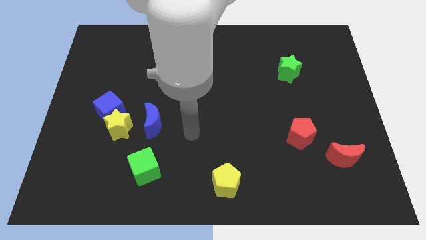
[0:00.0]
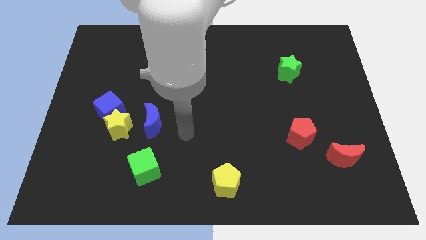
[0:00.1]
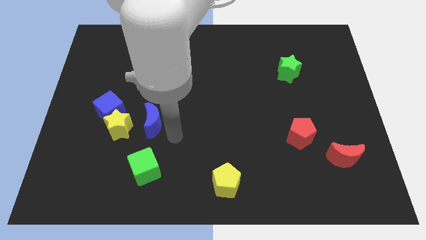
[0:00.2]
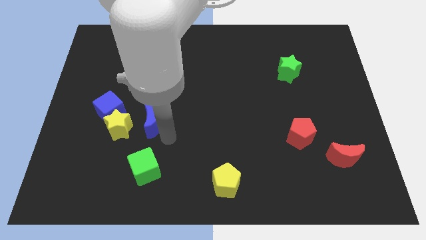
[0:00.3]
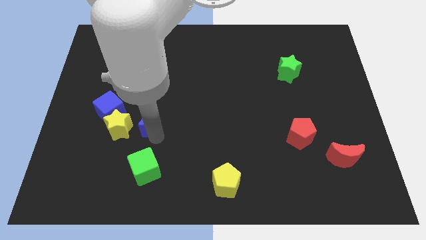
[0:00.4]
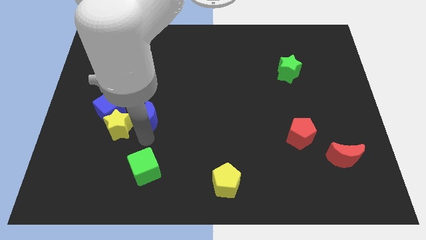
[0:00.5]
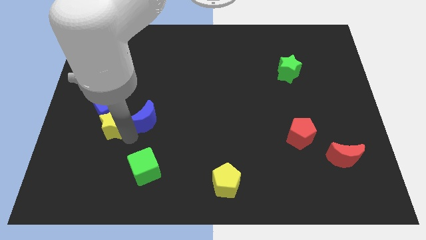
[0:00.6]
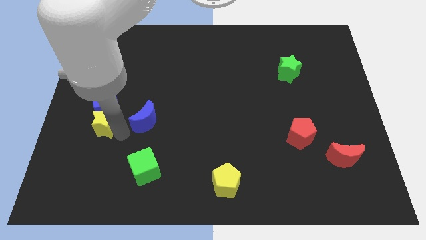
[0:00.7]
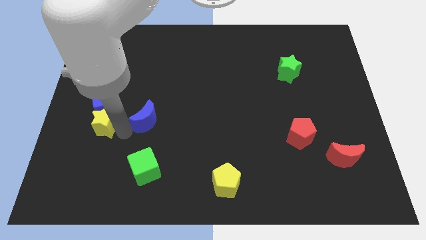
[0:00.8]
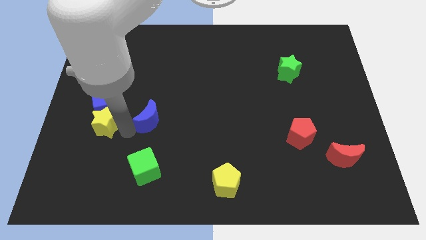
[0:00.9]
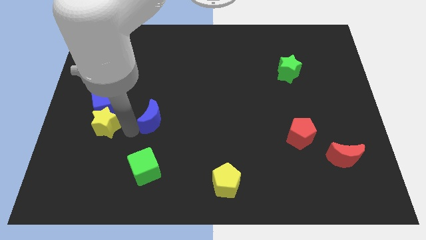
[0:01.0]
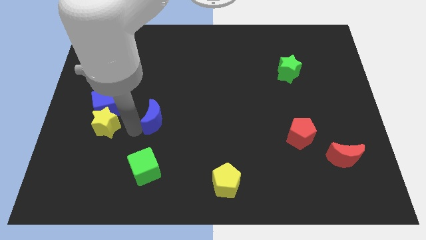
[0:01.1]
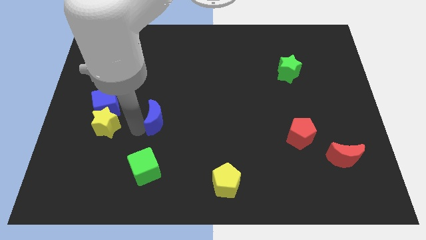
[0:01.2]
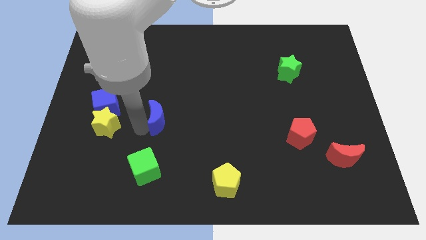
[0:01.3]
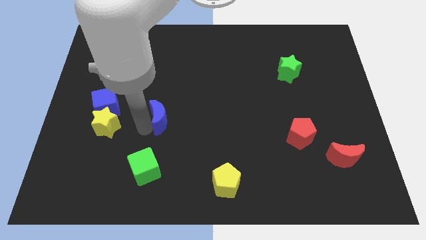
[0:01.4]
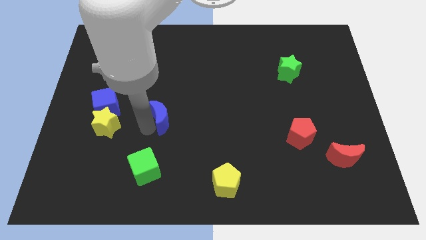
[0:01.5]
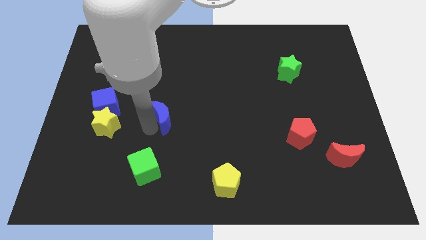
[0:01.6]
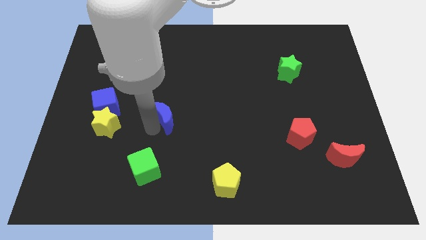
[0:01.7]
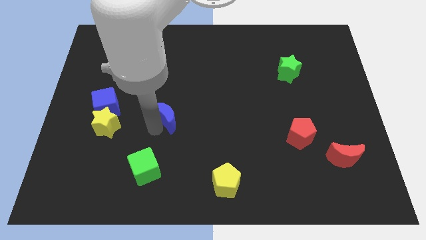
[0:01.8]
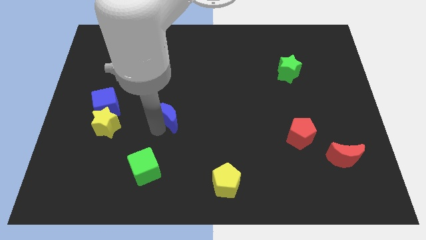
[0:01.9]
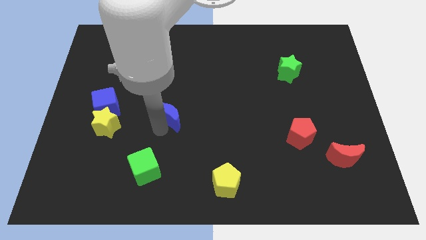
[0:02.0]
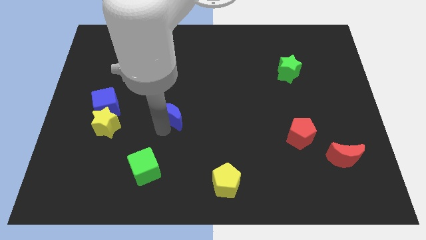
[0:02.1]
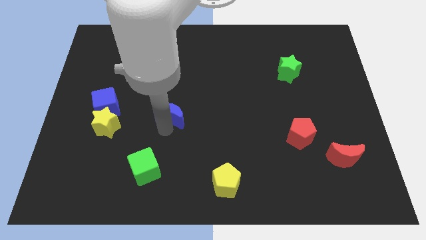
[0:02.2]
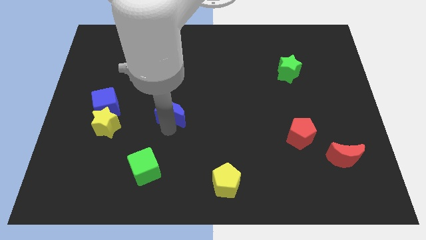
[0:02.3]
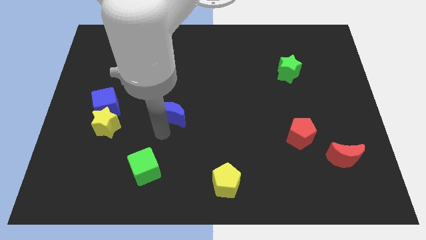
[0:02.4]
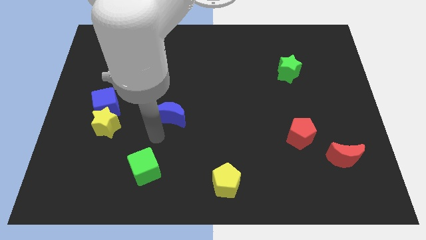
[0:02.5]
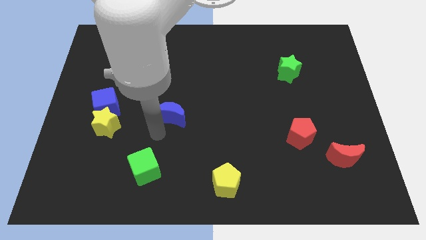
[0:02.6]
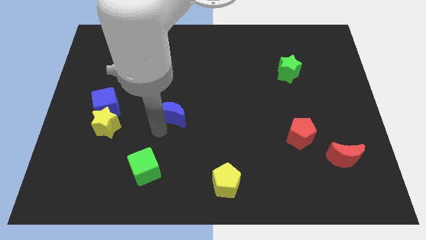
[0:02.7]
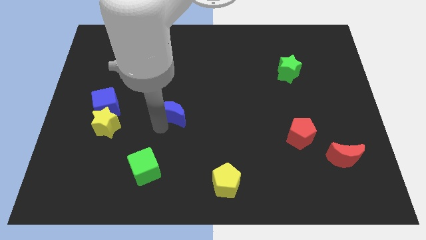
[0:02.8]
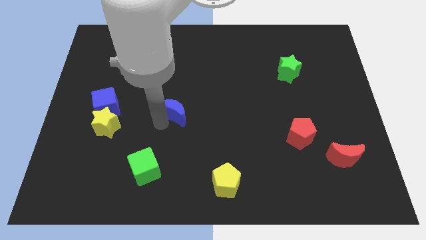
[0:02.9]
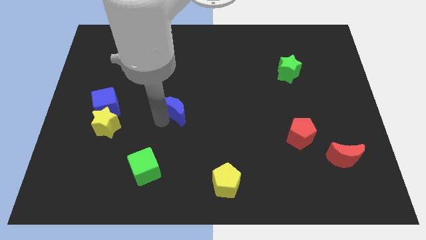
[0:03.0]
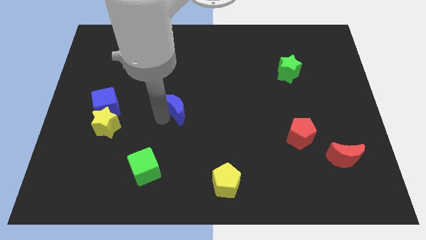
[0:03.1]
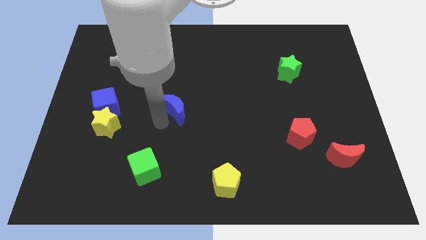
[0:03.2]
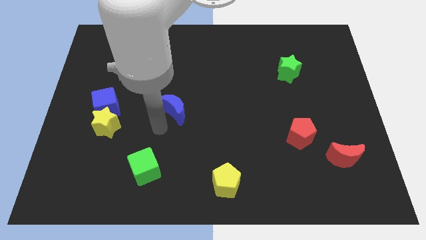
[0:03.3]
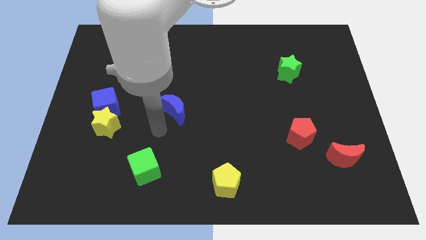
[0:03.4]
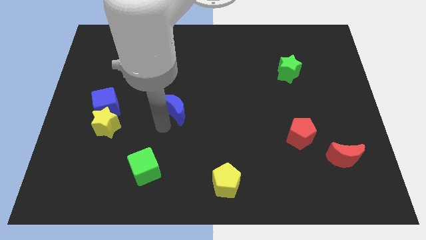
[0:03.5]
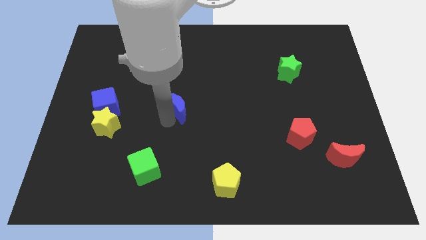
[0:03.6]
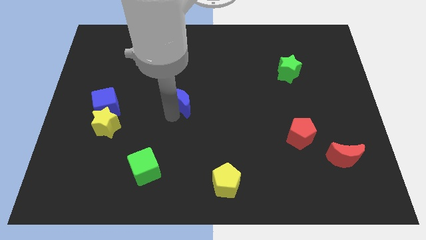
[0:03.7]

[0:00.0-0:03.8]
slide the blue moon a little bit up and right

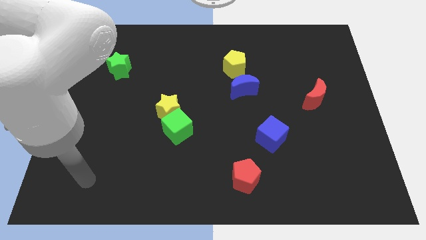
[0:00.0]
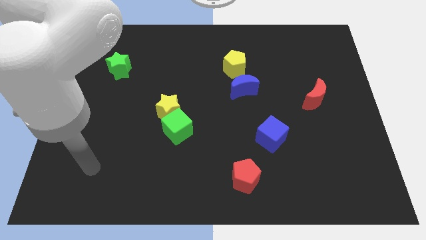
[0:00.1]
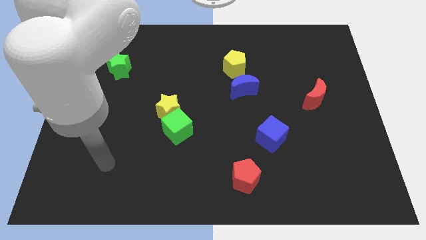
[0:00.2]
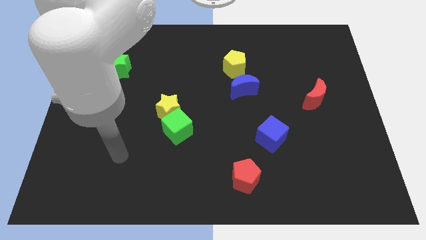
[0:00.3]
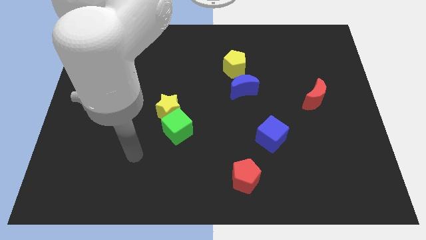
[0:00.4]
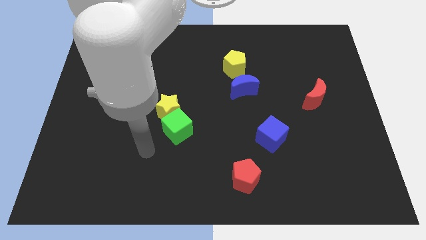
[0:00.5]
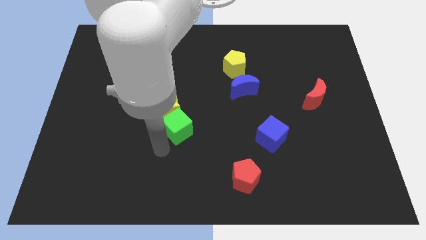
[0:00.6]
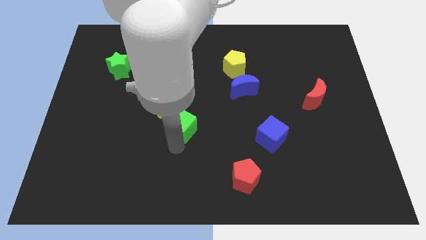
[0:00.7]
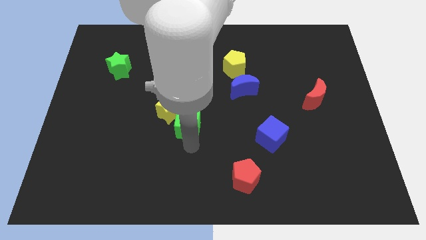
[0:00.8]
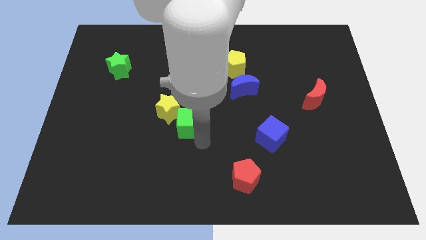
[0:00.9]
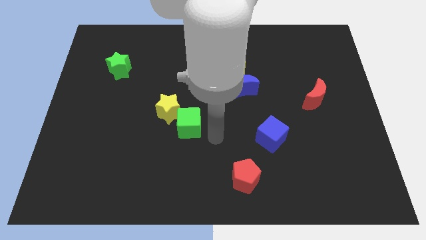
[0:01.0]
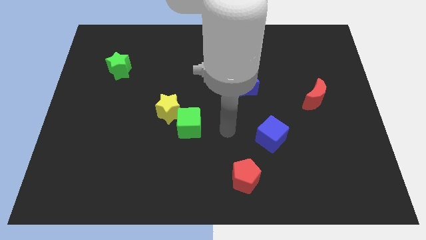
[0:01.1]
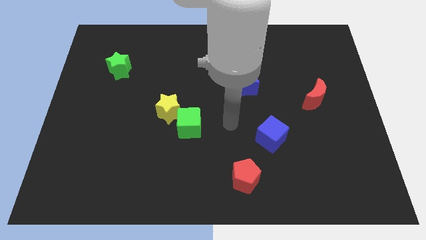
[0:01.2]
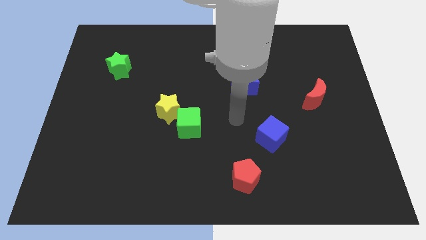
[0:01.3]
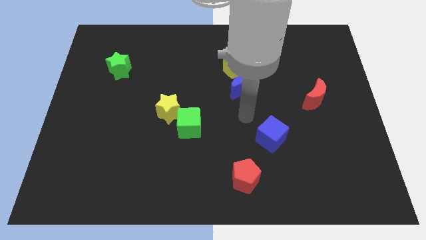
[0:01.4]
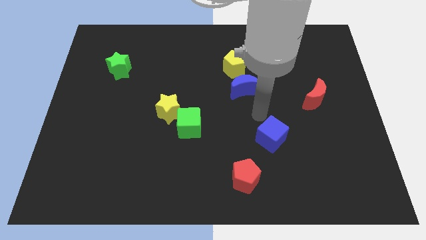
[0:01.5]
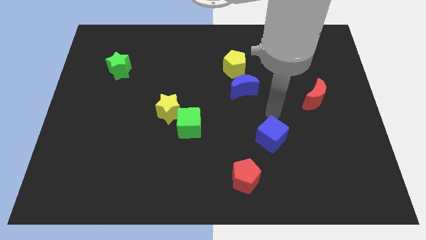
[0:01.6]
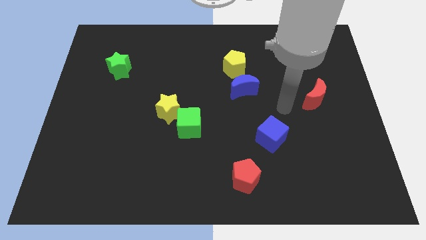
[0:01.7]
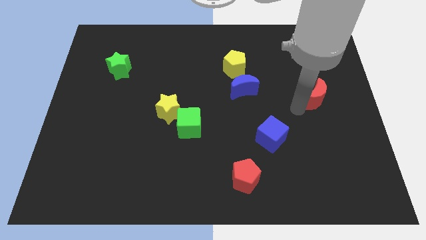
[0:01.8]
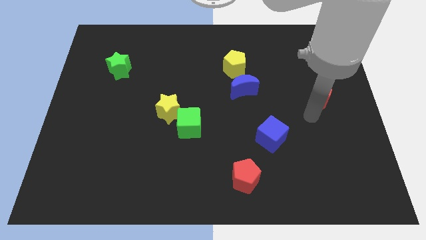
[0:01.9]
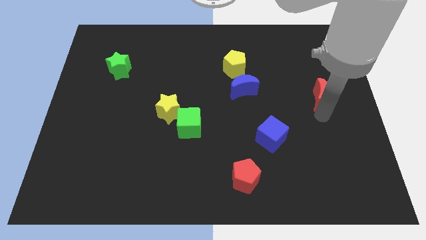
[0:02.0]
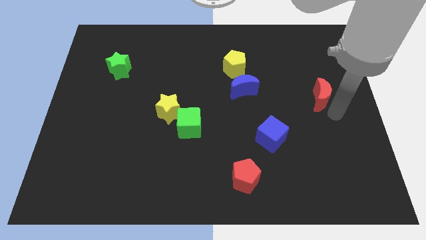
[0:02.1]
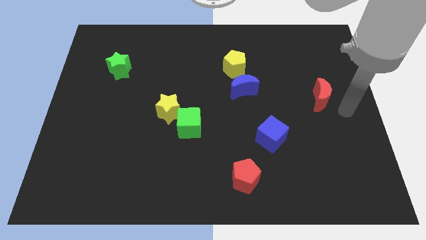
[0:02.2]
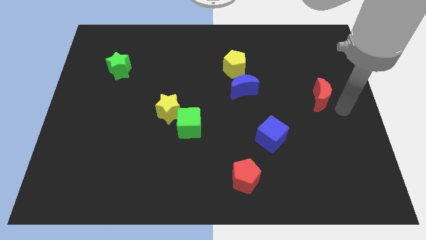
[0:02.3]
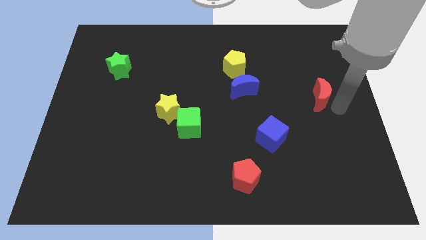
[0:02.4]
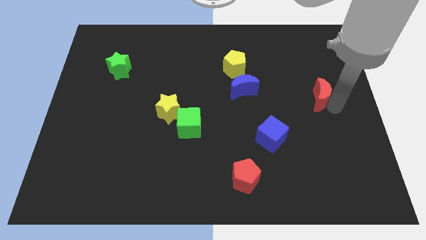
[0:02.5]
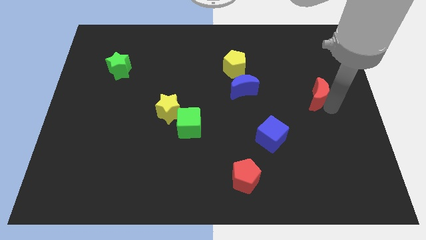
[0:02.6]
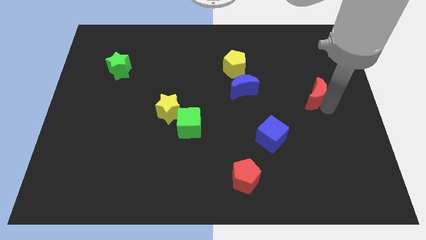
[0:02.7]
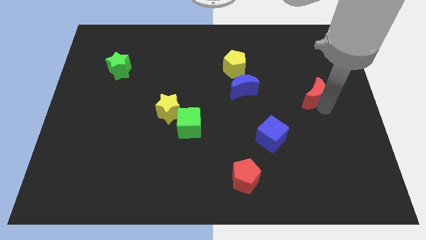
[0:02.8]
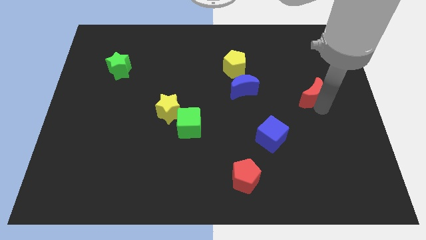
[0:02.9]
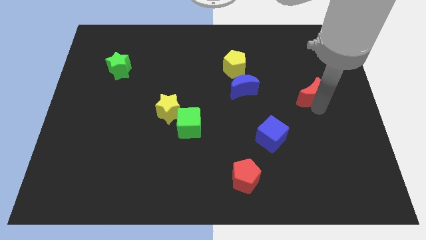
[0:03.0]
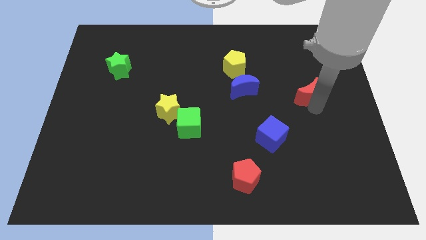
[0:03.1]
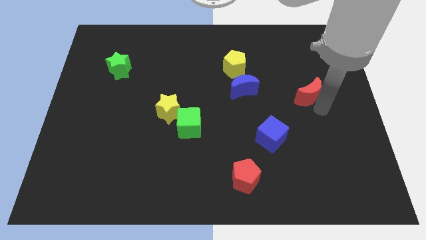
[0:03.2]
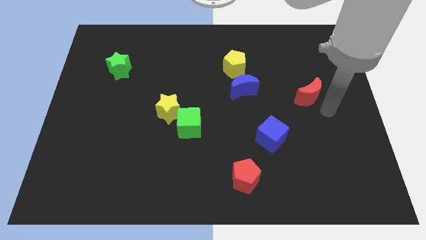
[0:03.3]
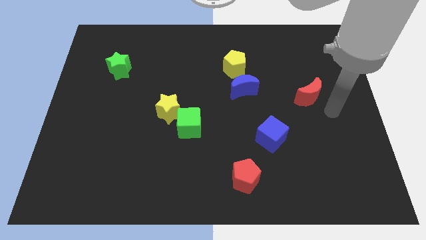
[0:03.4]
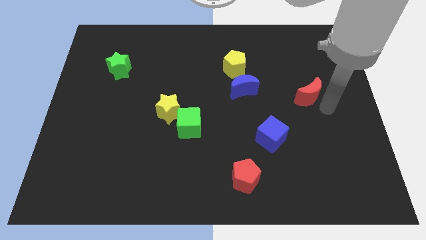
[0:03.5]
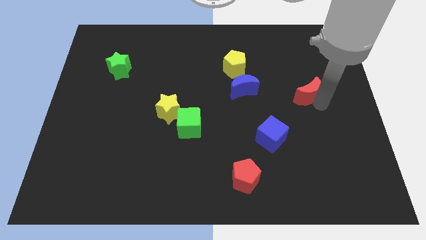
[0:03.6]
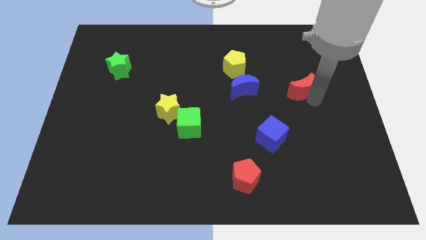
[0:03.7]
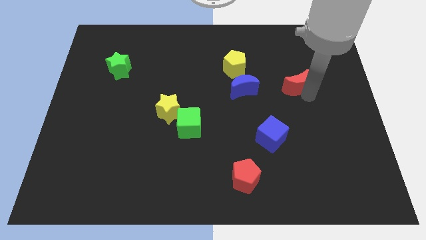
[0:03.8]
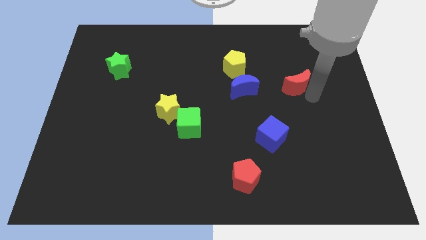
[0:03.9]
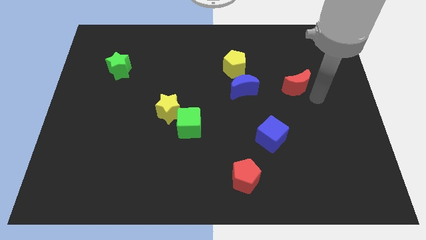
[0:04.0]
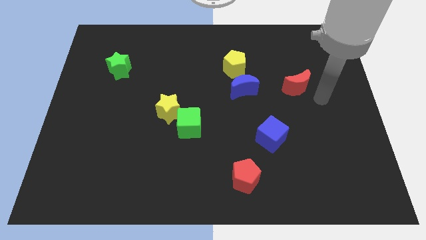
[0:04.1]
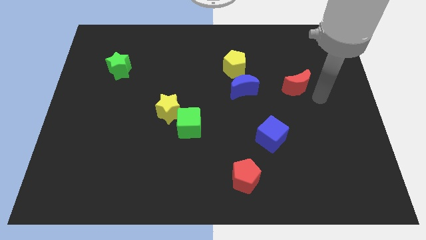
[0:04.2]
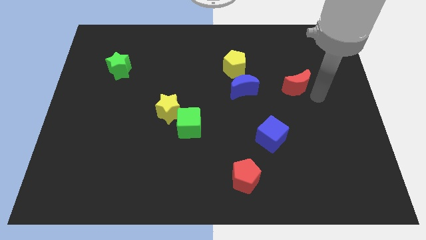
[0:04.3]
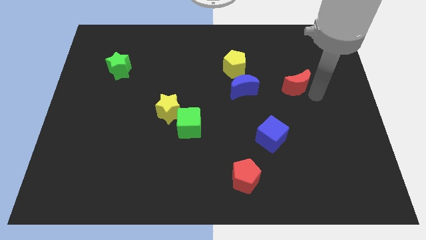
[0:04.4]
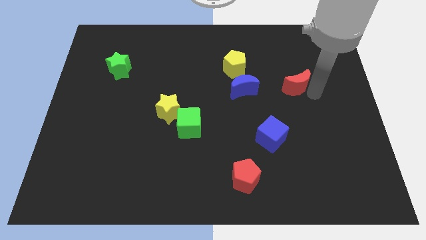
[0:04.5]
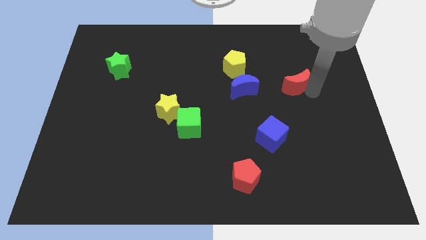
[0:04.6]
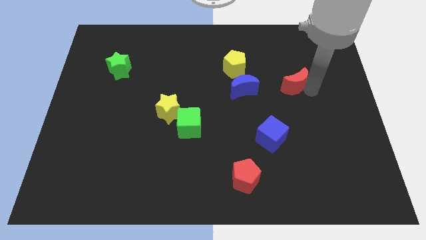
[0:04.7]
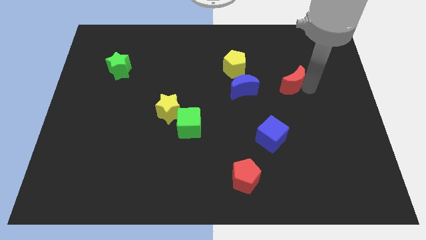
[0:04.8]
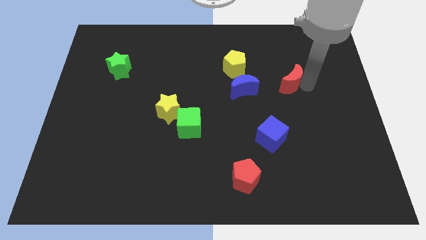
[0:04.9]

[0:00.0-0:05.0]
move the red moon up and left diagonally a bit
